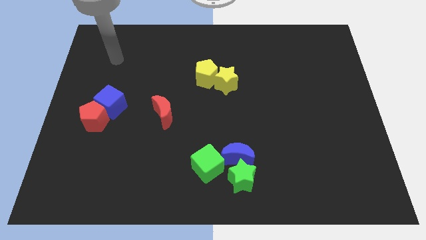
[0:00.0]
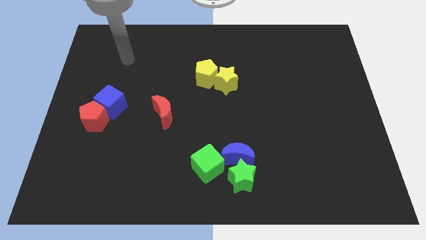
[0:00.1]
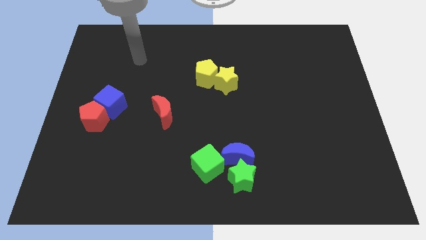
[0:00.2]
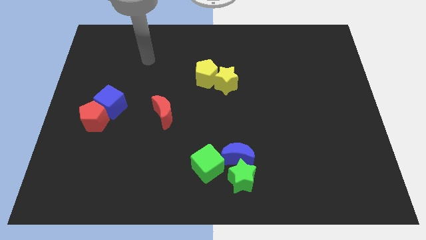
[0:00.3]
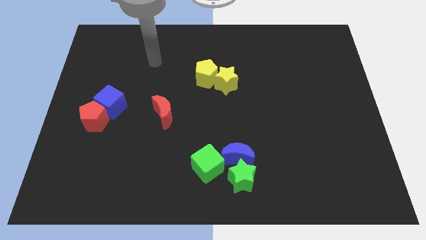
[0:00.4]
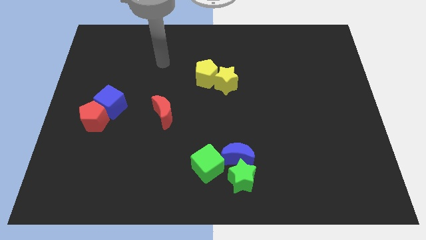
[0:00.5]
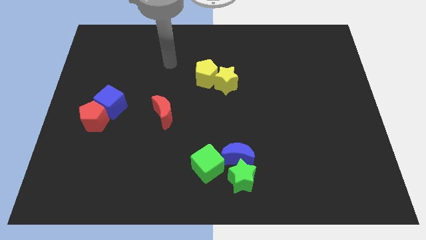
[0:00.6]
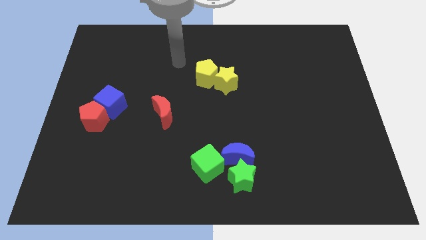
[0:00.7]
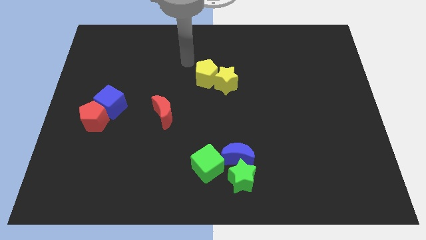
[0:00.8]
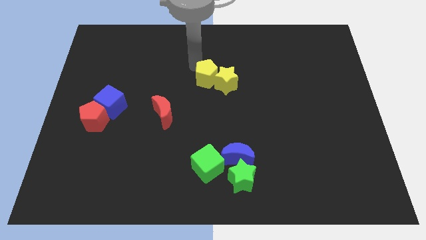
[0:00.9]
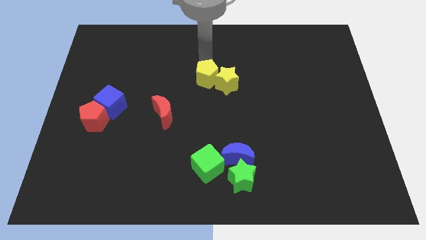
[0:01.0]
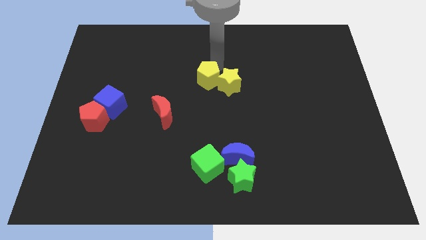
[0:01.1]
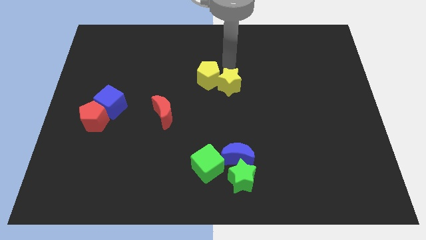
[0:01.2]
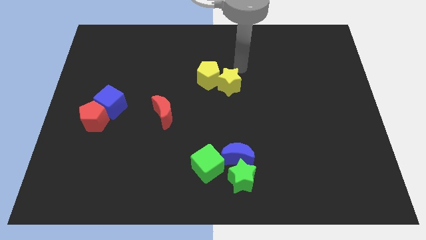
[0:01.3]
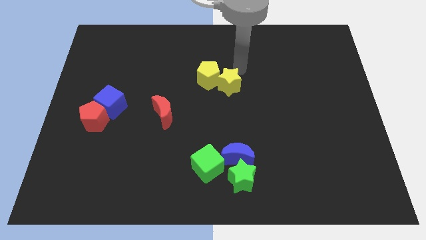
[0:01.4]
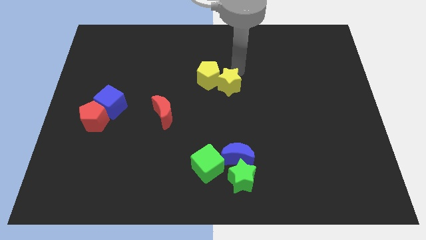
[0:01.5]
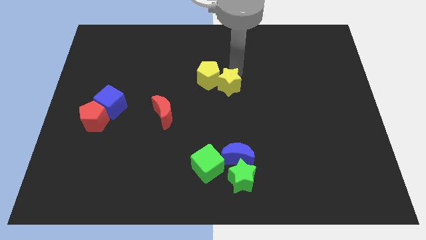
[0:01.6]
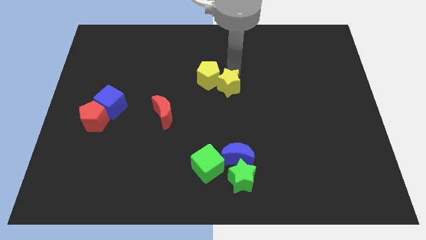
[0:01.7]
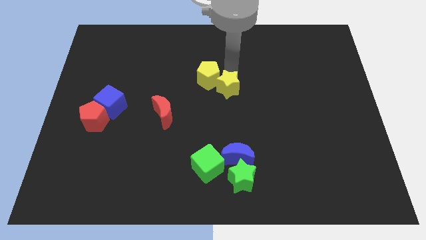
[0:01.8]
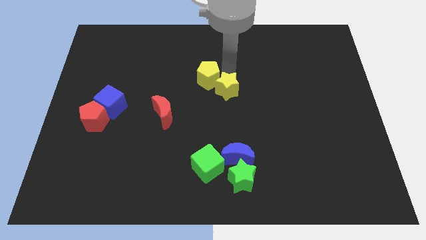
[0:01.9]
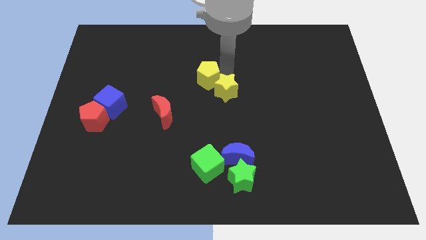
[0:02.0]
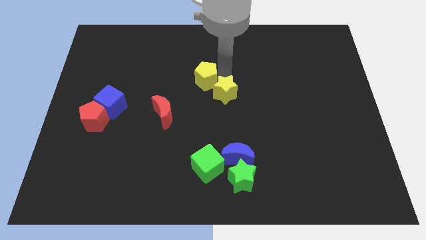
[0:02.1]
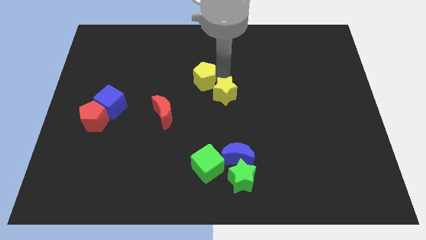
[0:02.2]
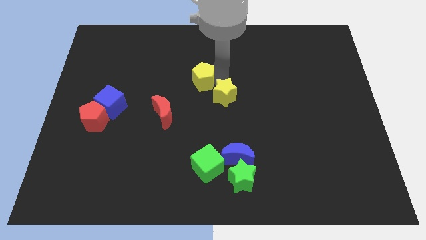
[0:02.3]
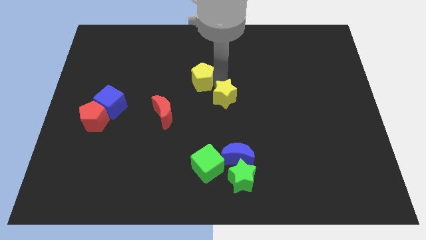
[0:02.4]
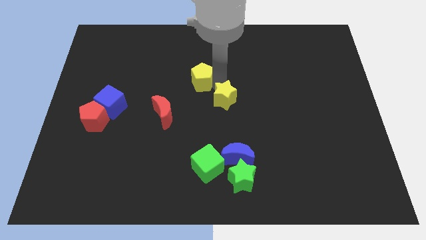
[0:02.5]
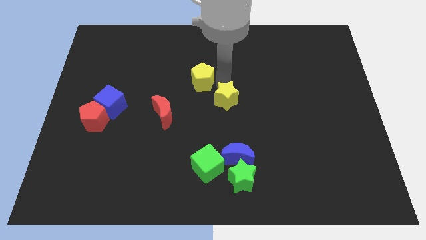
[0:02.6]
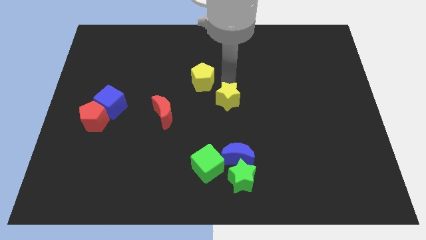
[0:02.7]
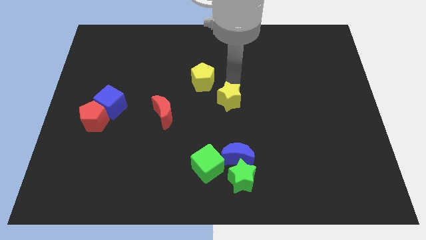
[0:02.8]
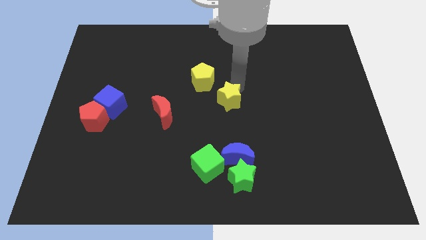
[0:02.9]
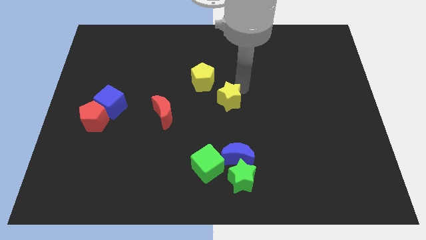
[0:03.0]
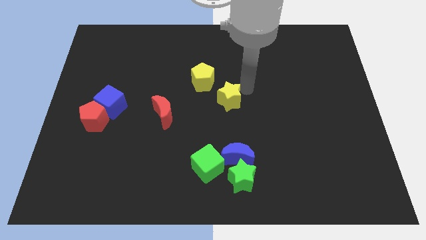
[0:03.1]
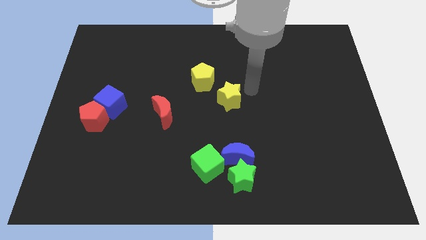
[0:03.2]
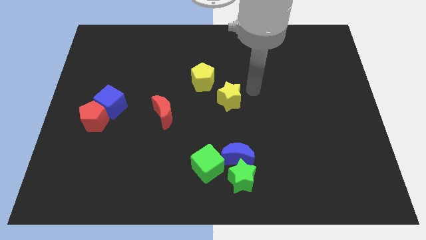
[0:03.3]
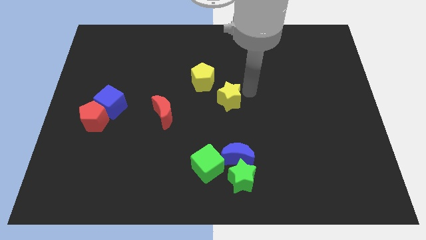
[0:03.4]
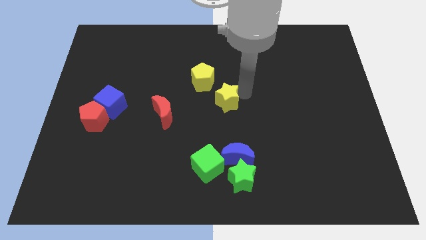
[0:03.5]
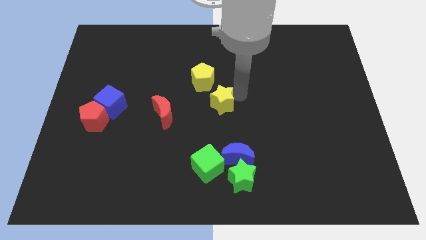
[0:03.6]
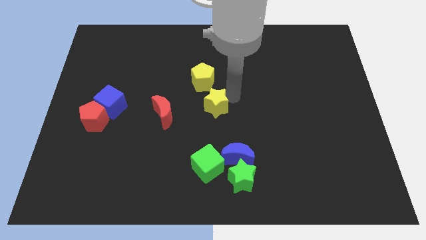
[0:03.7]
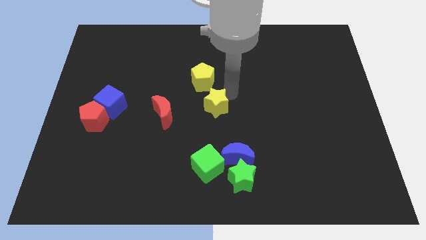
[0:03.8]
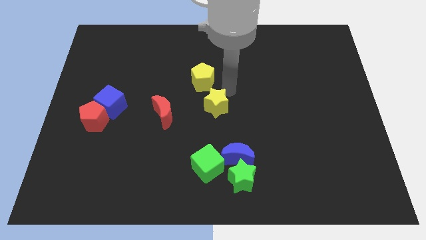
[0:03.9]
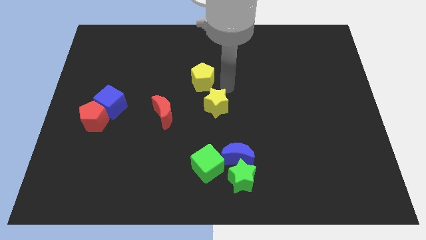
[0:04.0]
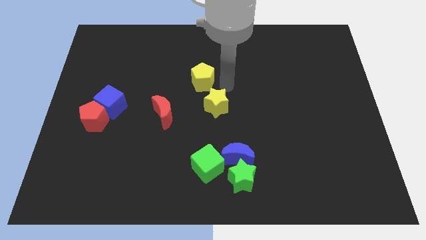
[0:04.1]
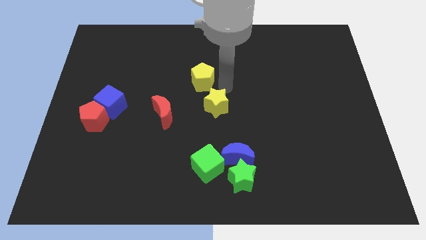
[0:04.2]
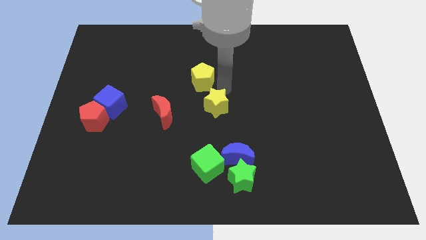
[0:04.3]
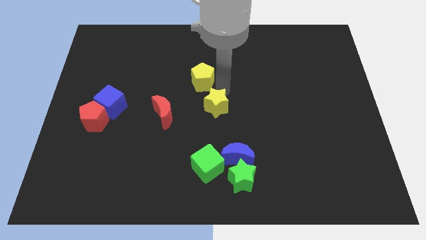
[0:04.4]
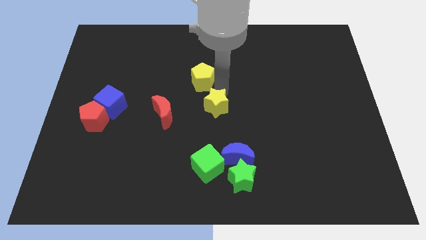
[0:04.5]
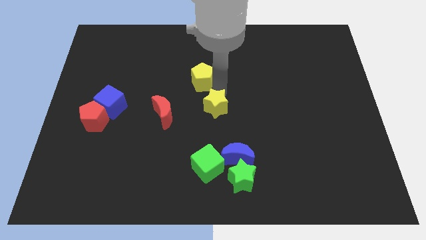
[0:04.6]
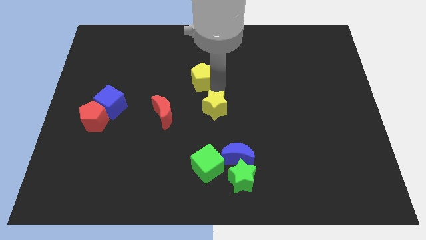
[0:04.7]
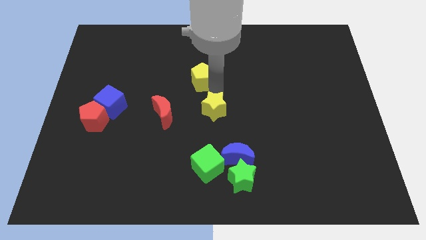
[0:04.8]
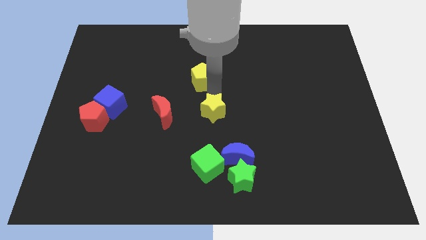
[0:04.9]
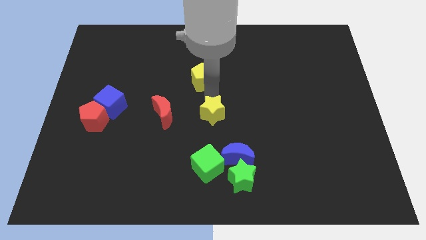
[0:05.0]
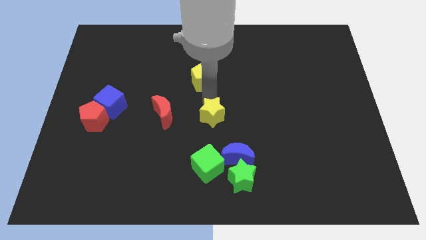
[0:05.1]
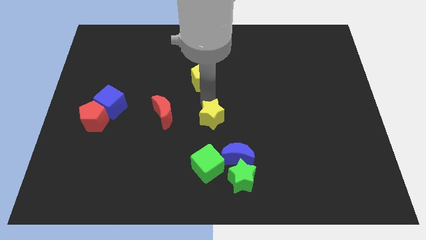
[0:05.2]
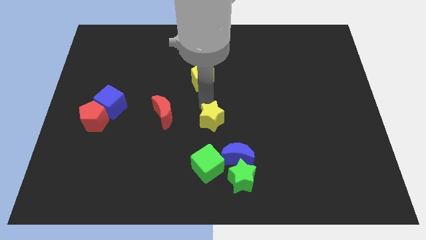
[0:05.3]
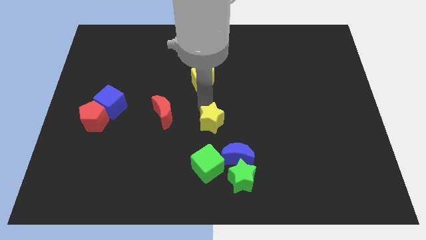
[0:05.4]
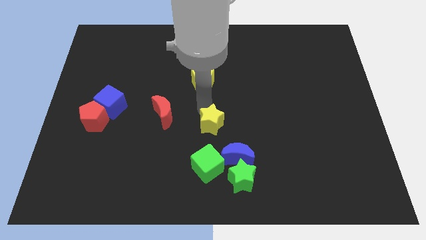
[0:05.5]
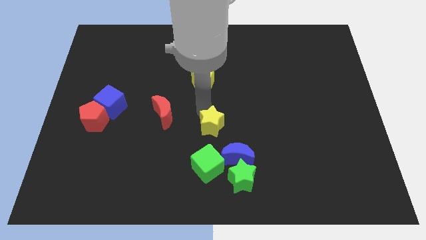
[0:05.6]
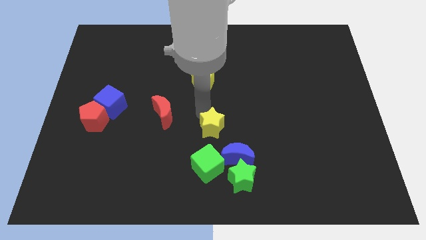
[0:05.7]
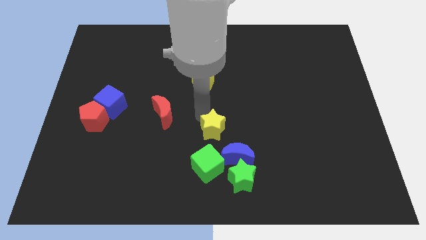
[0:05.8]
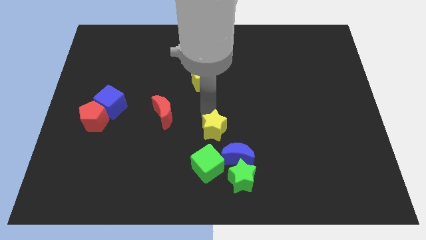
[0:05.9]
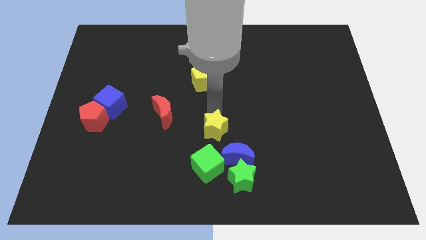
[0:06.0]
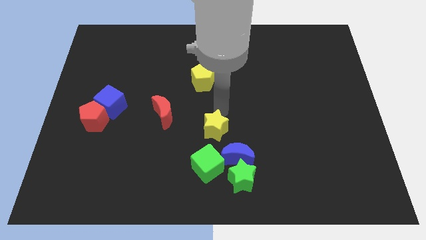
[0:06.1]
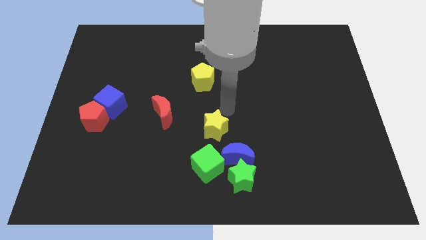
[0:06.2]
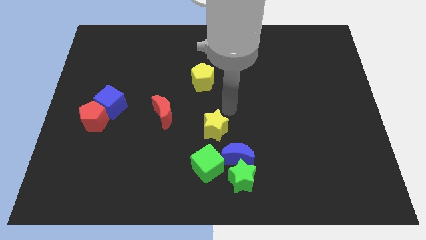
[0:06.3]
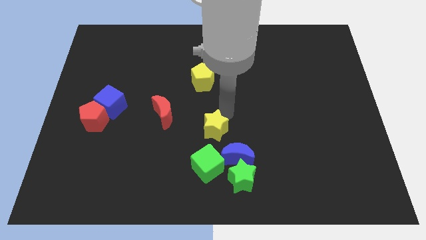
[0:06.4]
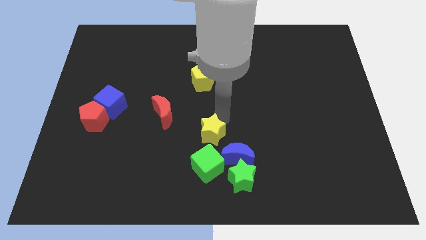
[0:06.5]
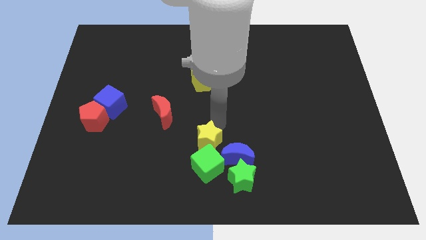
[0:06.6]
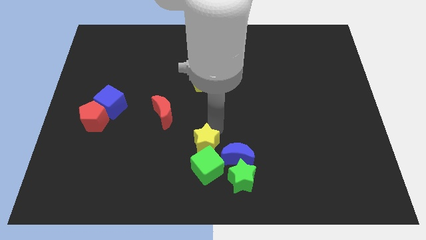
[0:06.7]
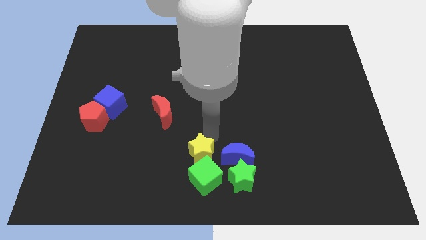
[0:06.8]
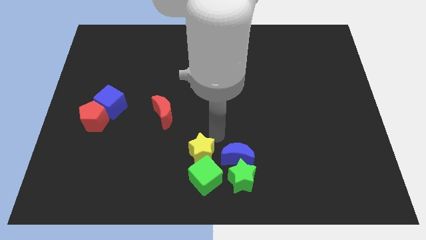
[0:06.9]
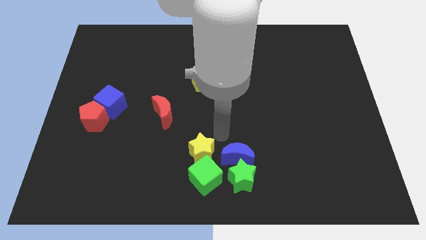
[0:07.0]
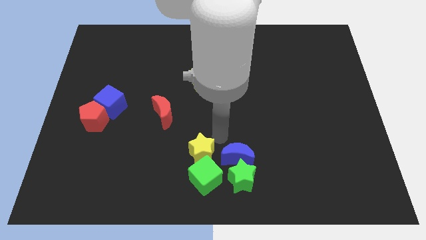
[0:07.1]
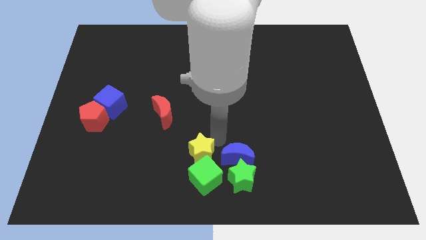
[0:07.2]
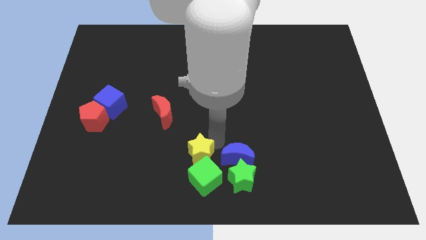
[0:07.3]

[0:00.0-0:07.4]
put the yellow star to the bottom

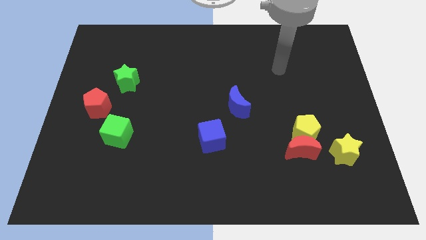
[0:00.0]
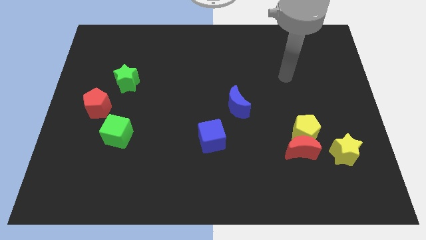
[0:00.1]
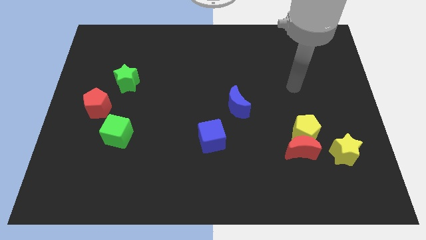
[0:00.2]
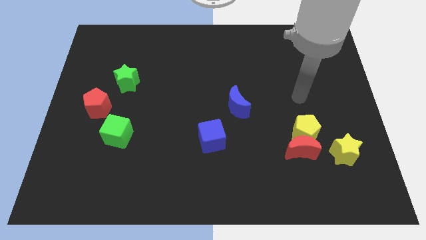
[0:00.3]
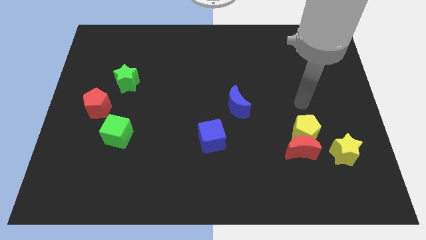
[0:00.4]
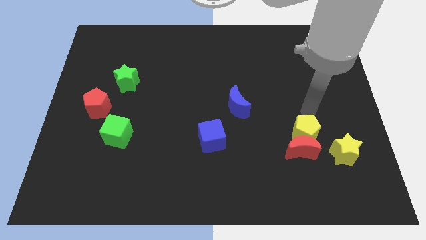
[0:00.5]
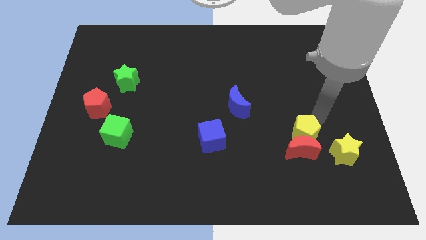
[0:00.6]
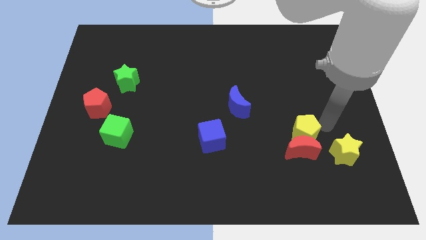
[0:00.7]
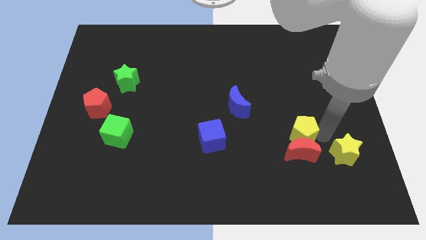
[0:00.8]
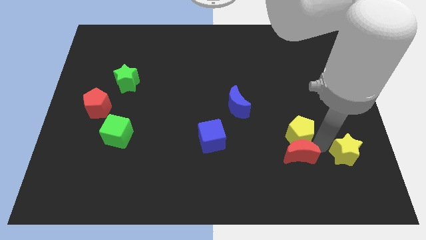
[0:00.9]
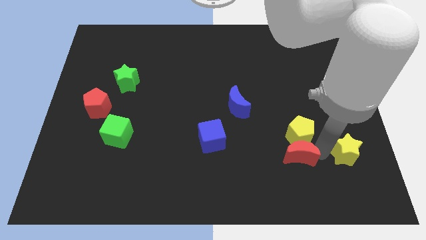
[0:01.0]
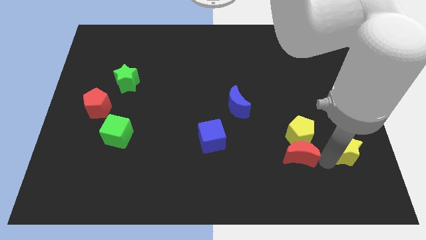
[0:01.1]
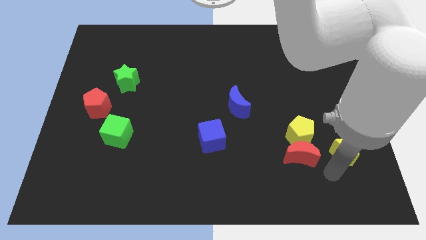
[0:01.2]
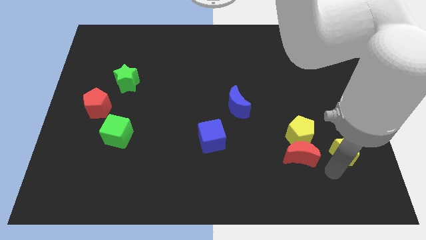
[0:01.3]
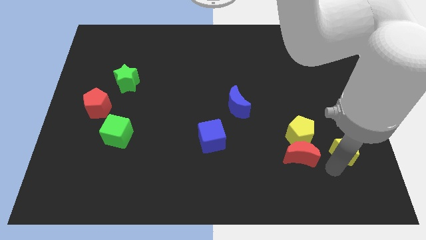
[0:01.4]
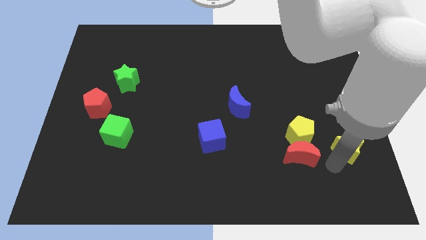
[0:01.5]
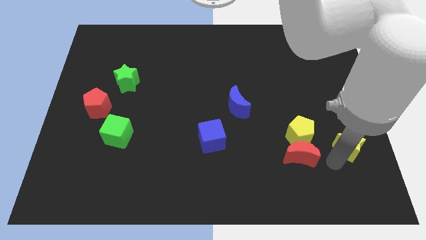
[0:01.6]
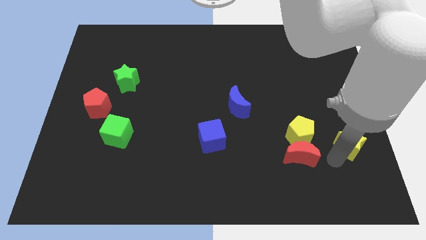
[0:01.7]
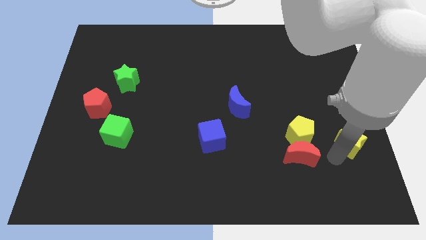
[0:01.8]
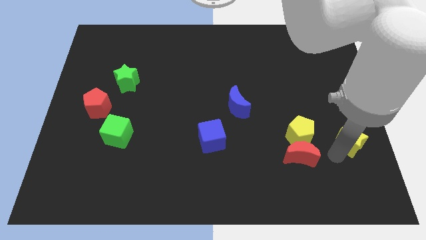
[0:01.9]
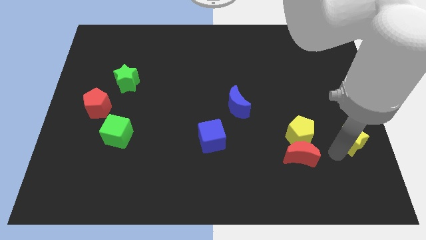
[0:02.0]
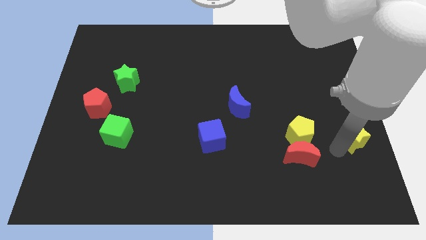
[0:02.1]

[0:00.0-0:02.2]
put the yellow star to the right side of the board
